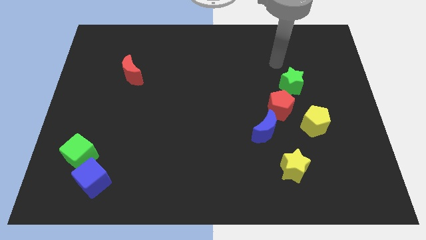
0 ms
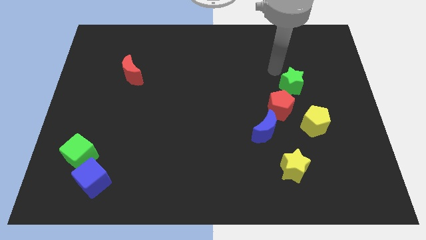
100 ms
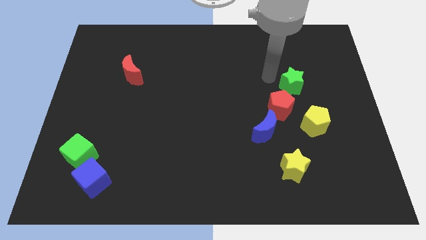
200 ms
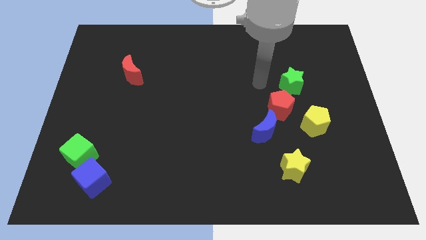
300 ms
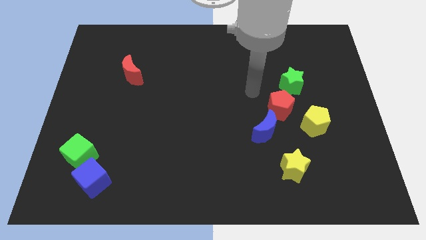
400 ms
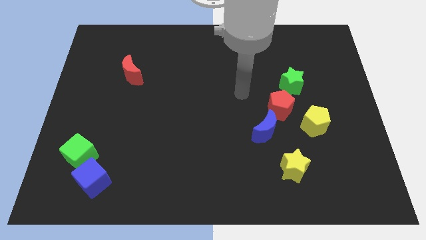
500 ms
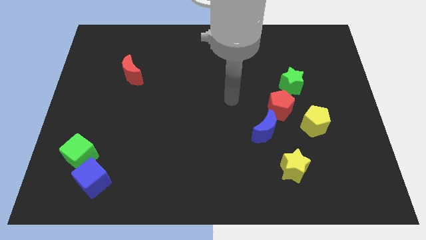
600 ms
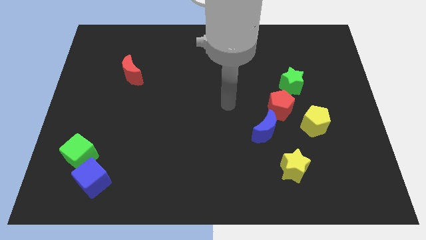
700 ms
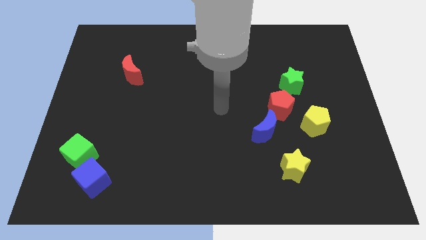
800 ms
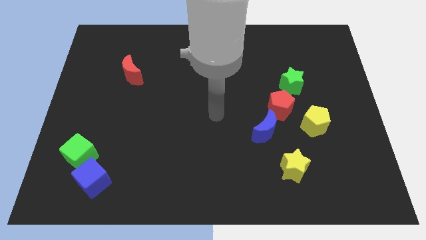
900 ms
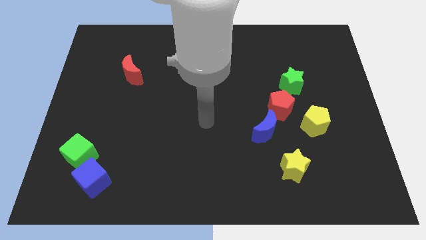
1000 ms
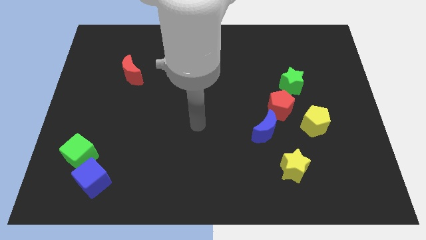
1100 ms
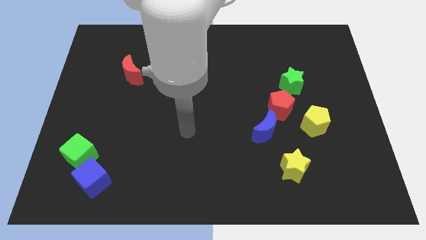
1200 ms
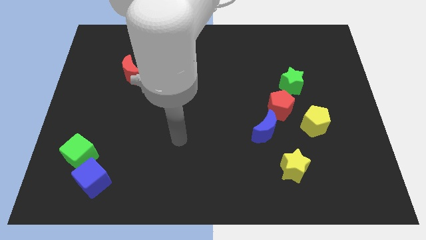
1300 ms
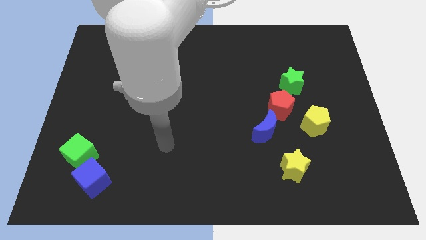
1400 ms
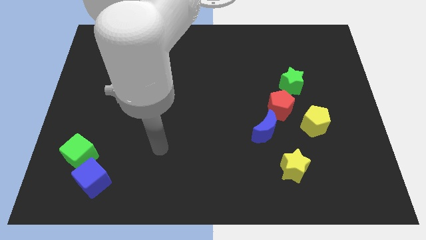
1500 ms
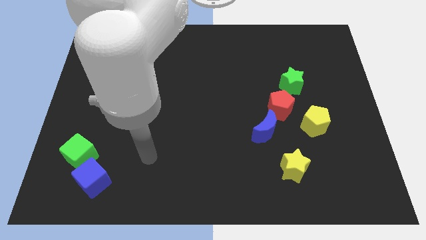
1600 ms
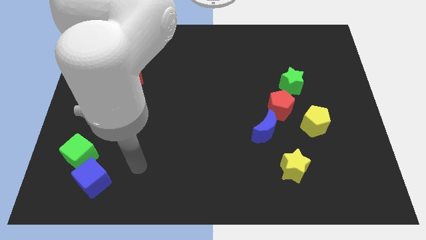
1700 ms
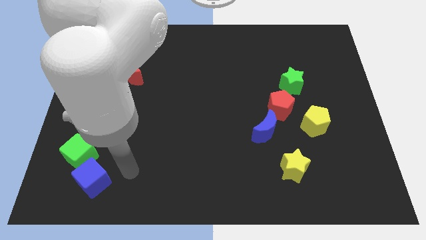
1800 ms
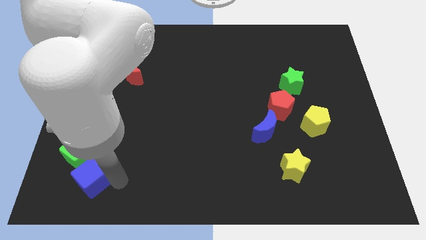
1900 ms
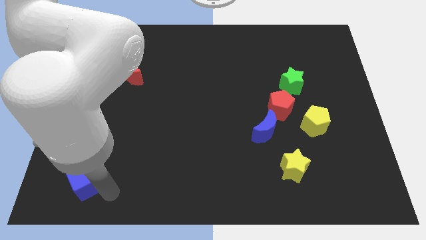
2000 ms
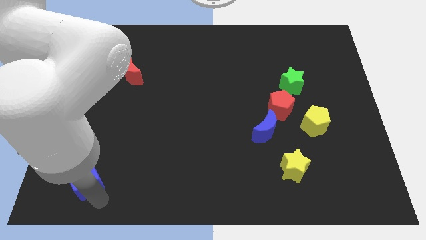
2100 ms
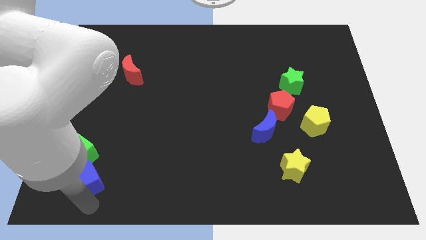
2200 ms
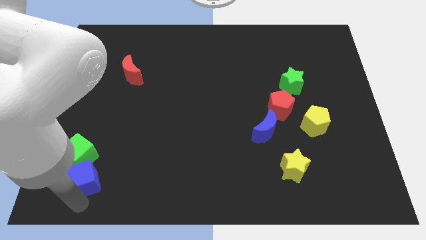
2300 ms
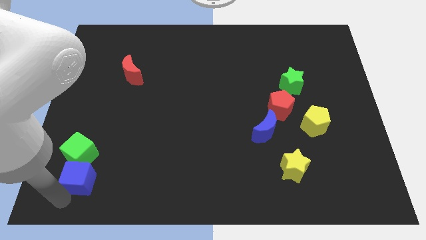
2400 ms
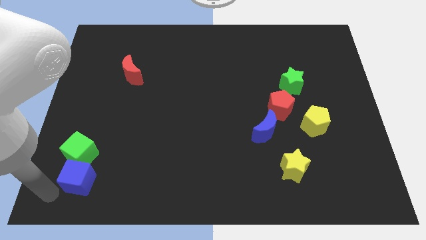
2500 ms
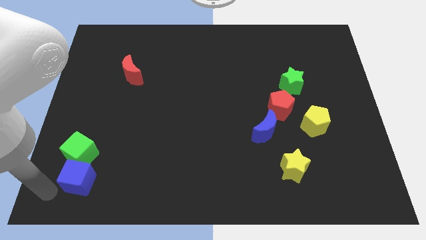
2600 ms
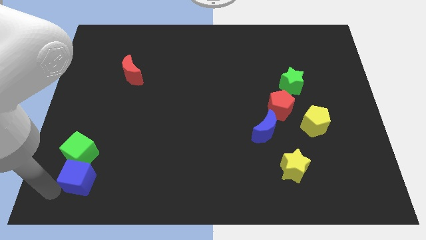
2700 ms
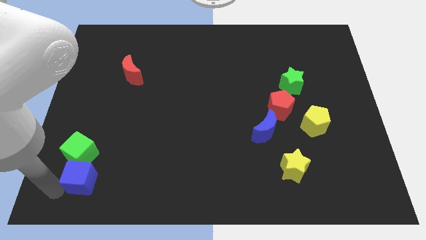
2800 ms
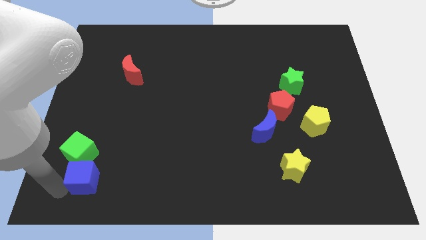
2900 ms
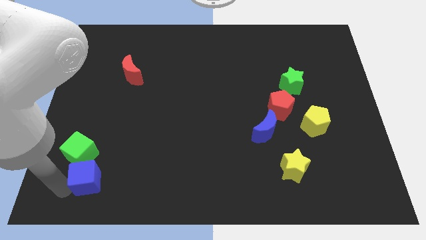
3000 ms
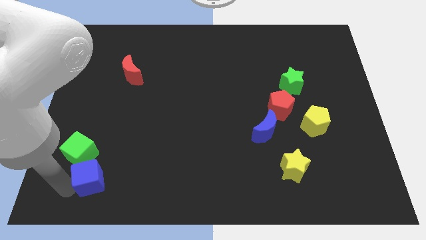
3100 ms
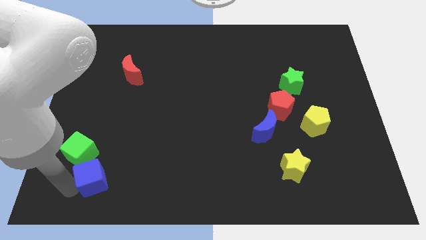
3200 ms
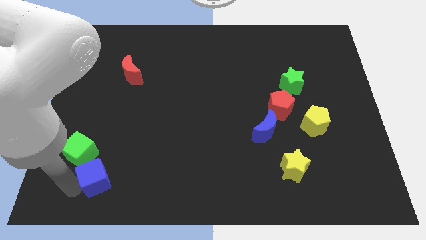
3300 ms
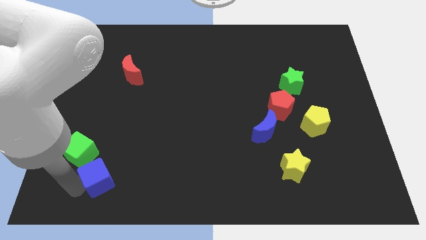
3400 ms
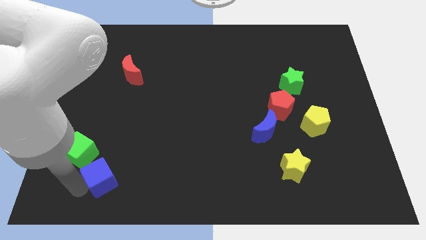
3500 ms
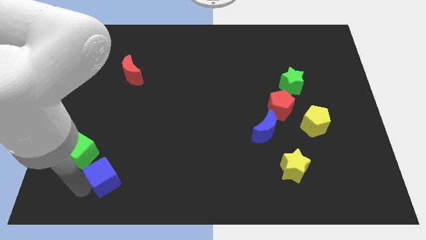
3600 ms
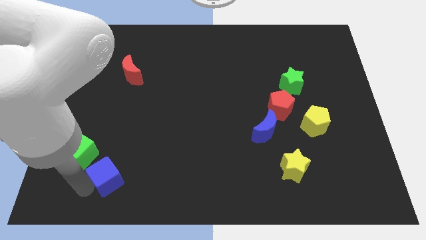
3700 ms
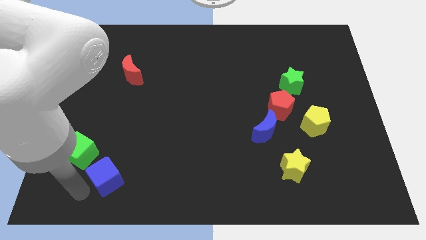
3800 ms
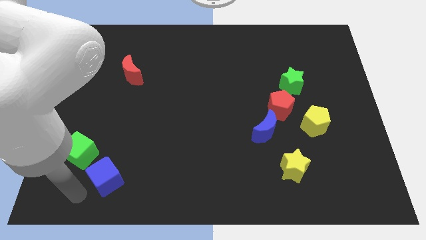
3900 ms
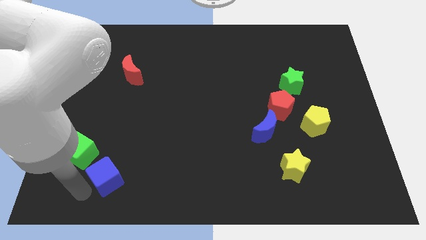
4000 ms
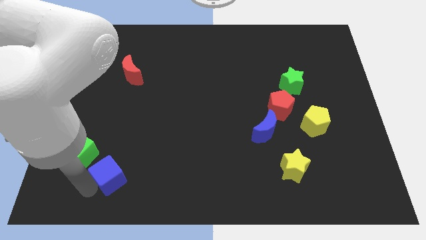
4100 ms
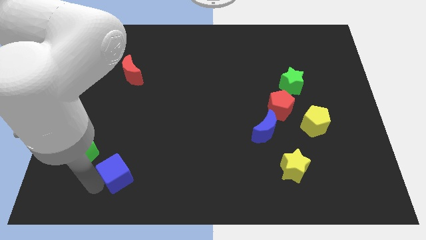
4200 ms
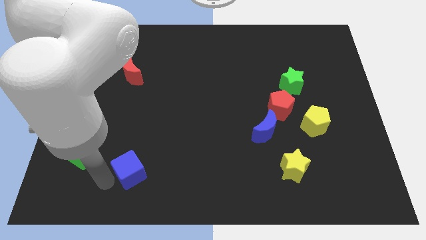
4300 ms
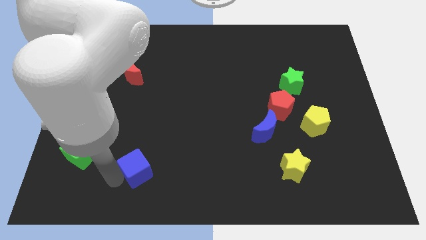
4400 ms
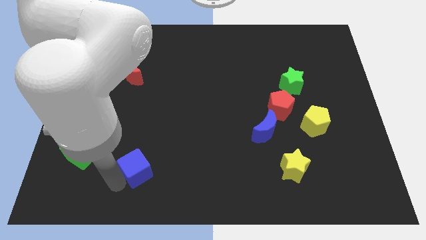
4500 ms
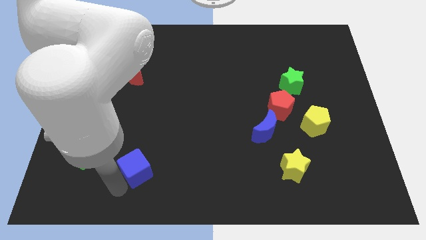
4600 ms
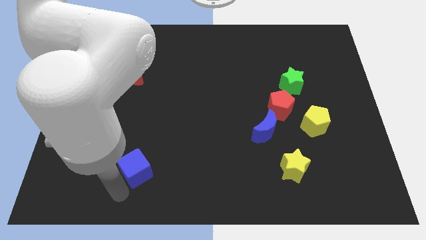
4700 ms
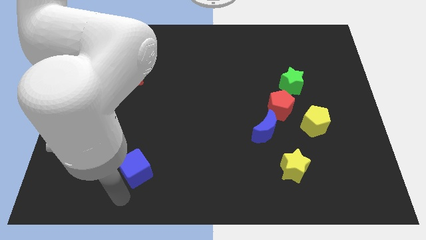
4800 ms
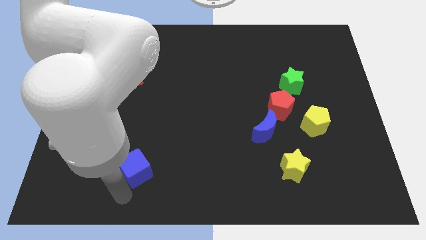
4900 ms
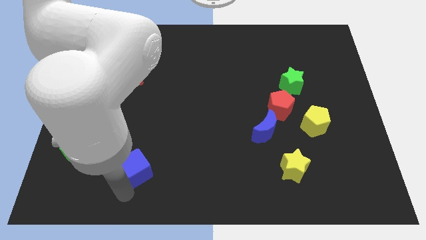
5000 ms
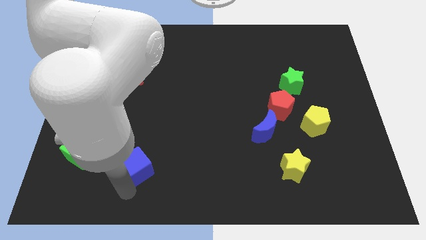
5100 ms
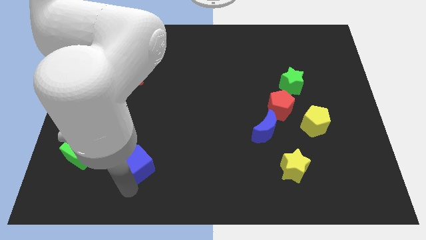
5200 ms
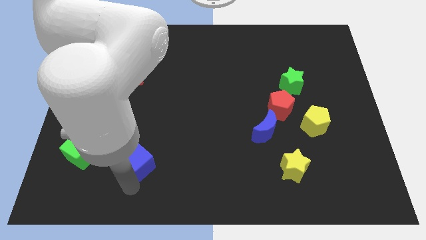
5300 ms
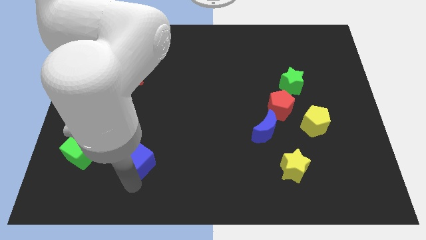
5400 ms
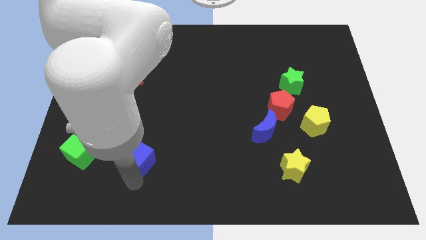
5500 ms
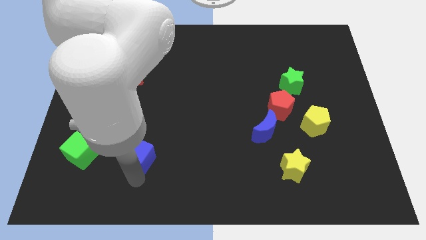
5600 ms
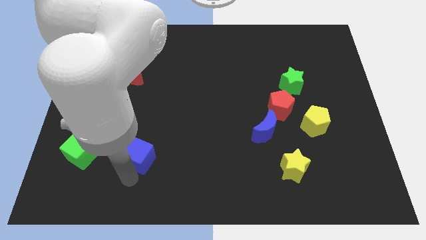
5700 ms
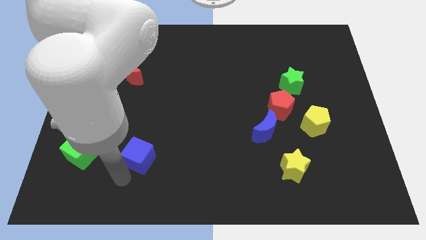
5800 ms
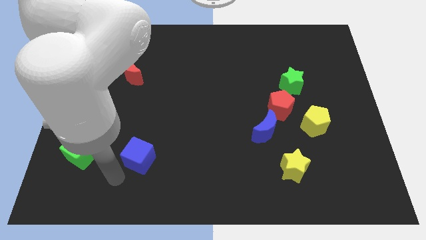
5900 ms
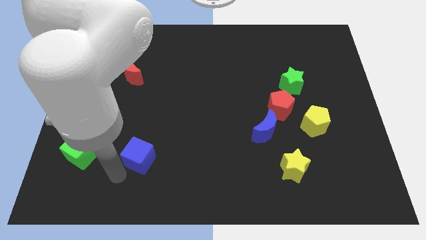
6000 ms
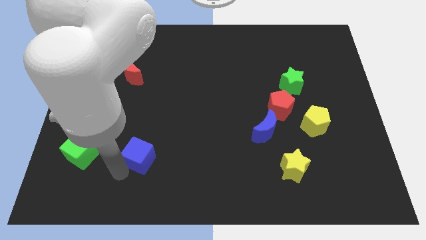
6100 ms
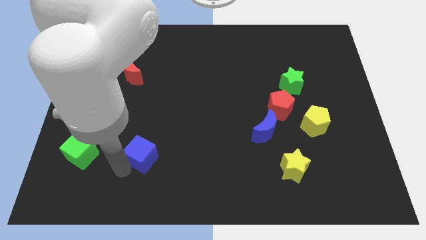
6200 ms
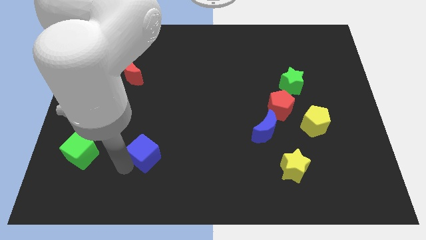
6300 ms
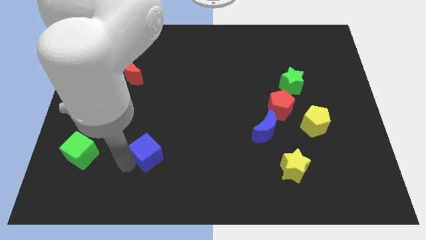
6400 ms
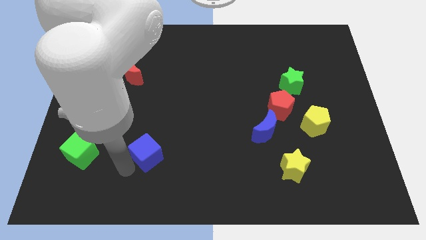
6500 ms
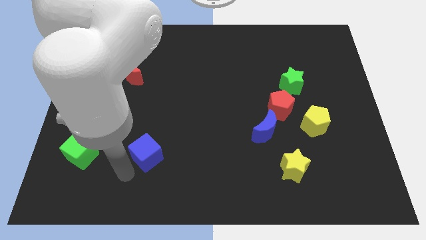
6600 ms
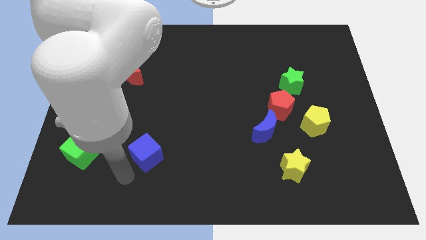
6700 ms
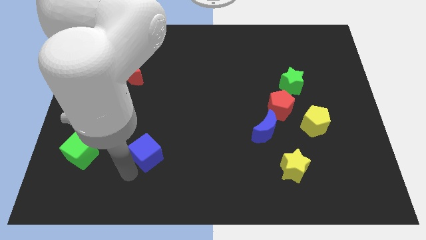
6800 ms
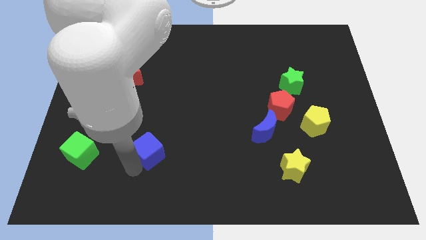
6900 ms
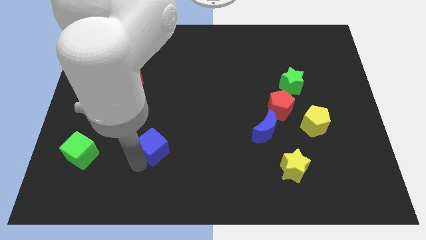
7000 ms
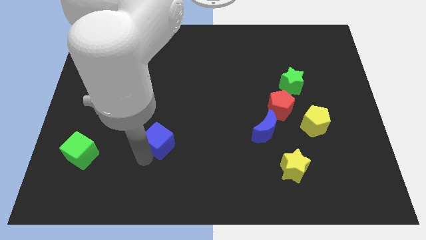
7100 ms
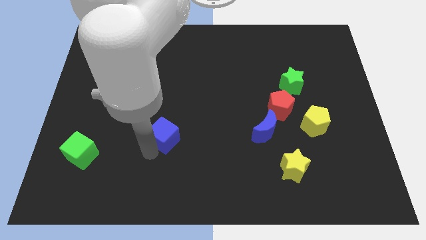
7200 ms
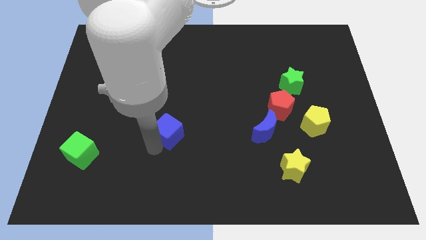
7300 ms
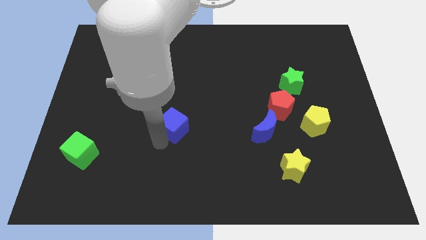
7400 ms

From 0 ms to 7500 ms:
push the blue cube upwards and then to the right

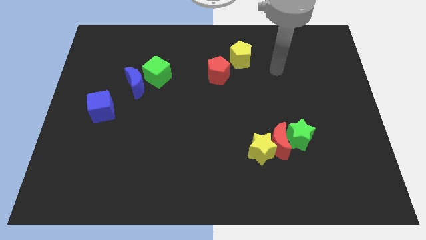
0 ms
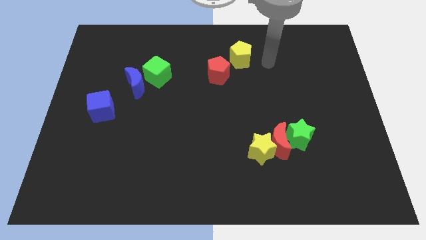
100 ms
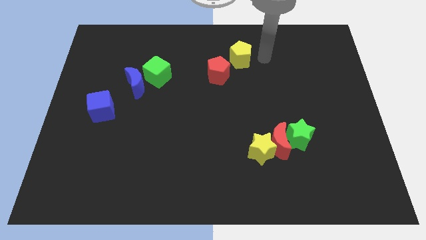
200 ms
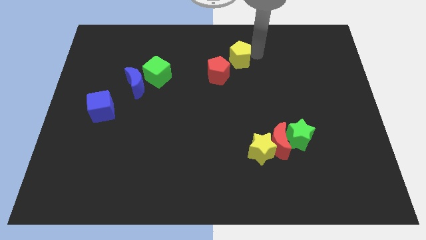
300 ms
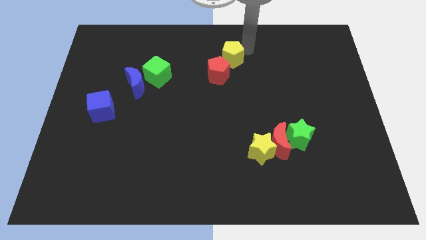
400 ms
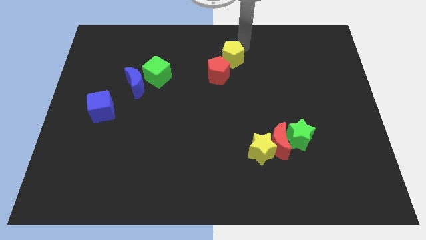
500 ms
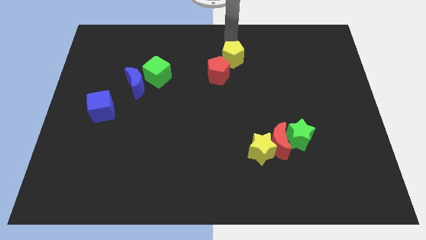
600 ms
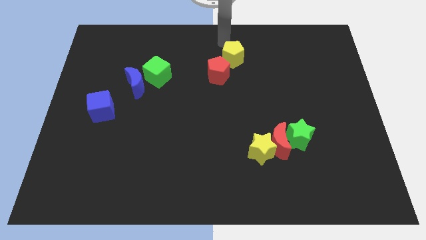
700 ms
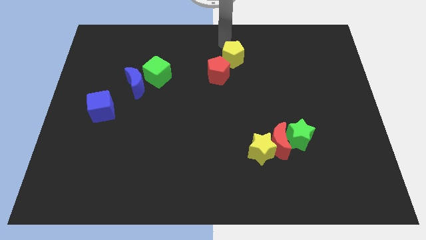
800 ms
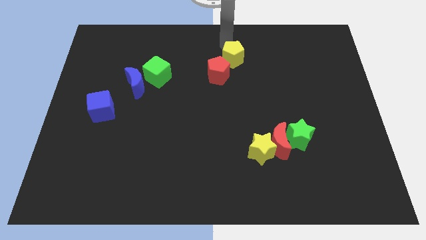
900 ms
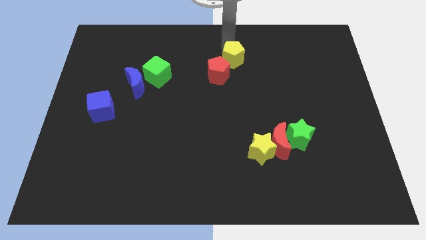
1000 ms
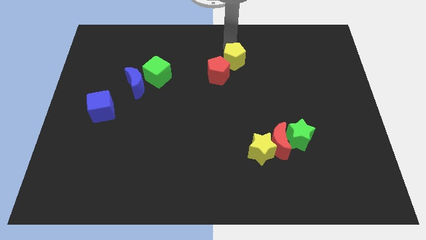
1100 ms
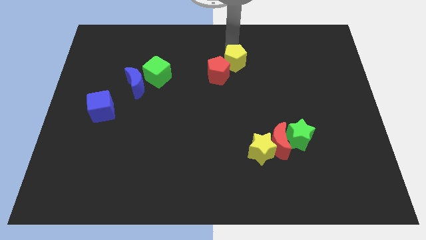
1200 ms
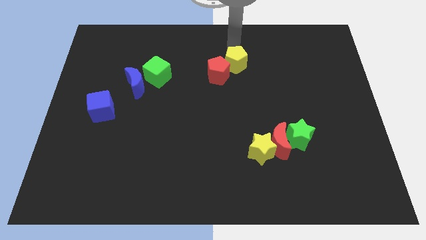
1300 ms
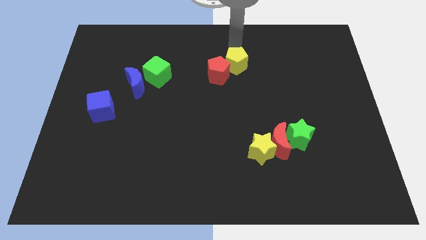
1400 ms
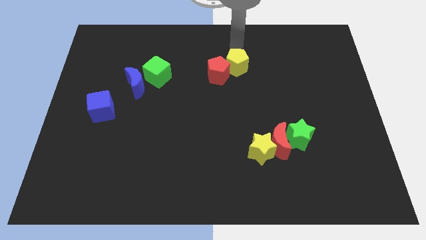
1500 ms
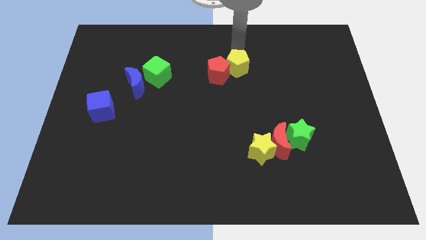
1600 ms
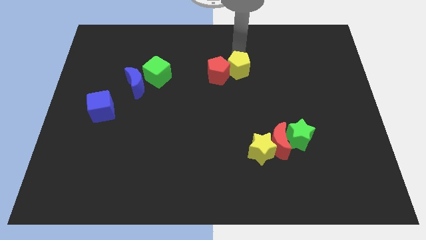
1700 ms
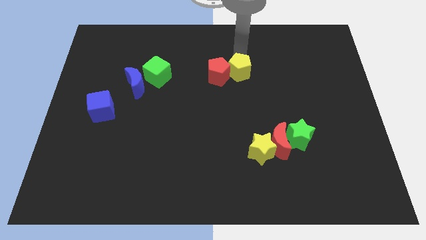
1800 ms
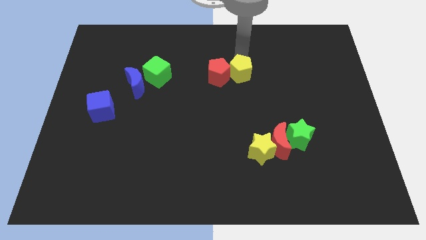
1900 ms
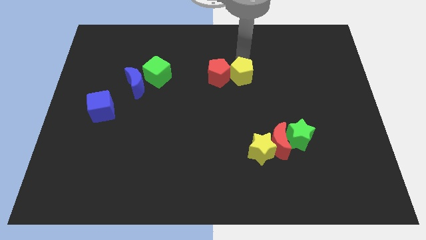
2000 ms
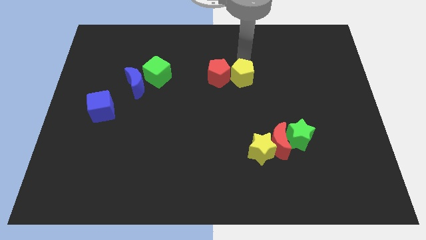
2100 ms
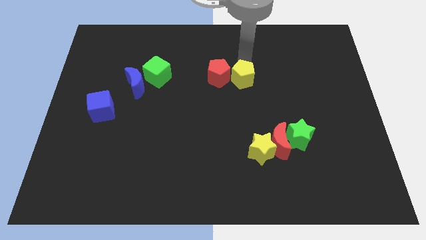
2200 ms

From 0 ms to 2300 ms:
slide the yellow pentagon a bit downwards
